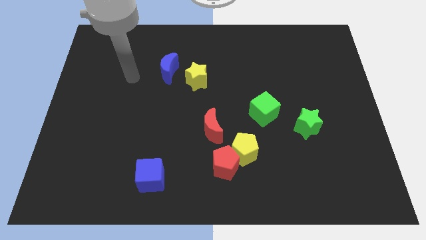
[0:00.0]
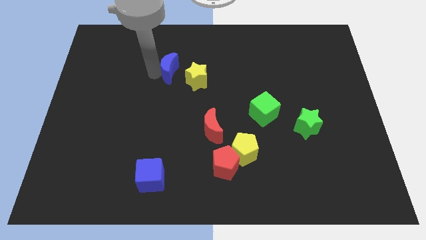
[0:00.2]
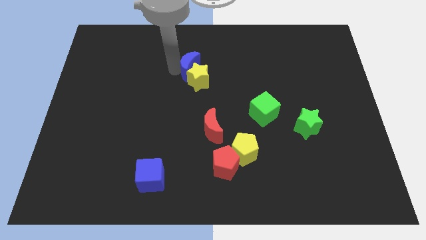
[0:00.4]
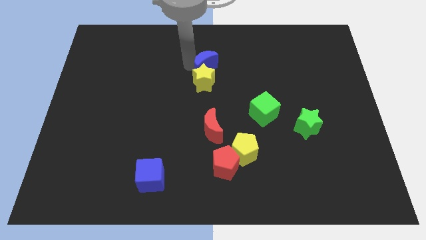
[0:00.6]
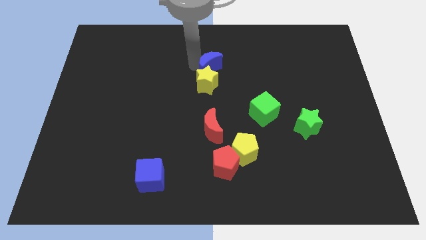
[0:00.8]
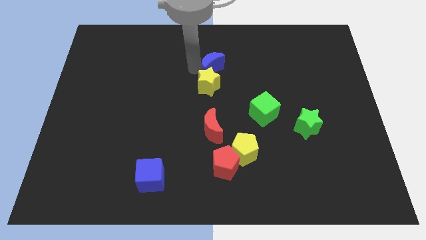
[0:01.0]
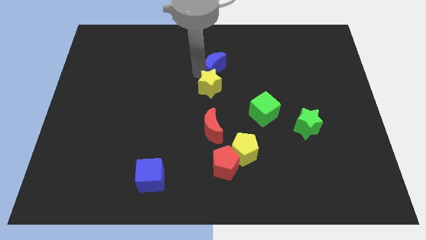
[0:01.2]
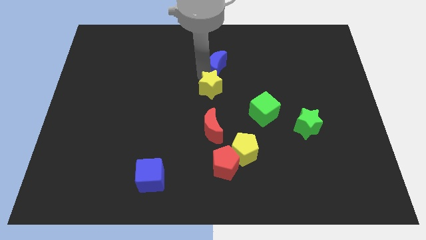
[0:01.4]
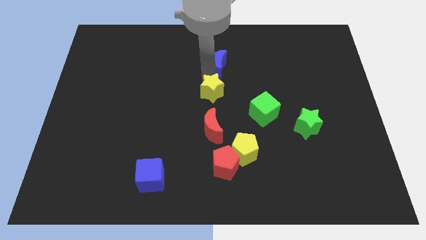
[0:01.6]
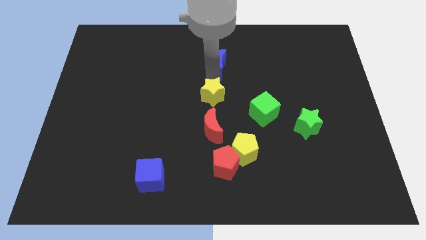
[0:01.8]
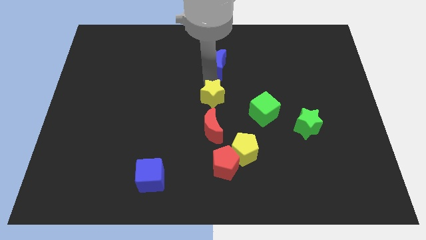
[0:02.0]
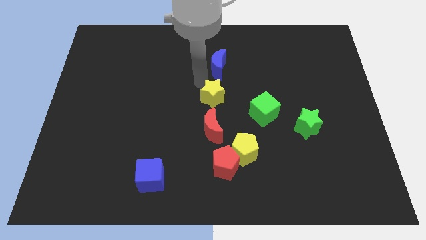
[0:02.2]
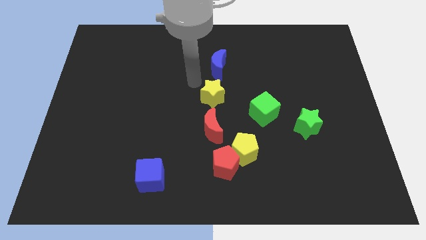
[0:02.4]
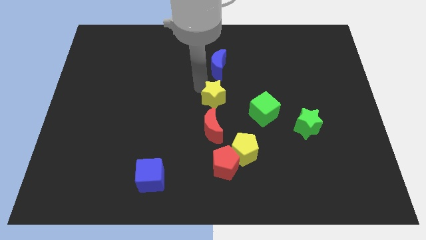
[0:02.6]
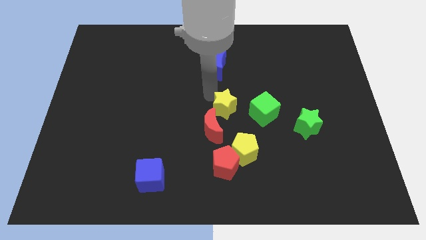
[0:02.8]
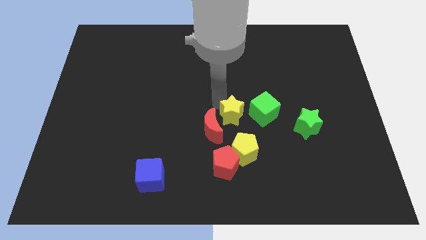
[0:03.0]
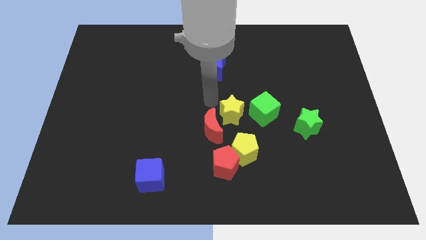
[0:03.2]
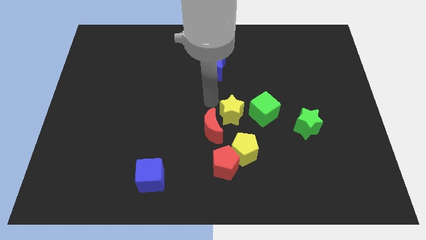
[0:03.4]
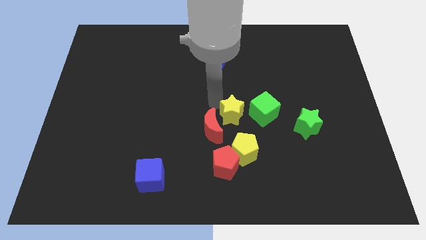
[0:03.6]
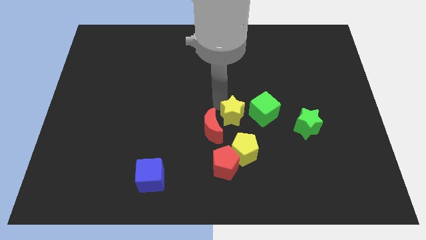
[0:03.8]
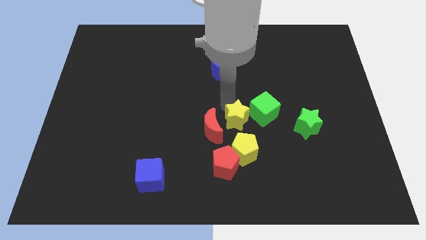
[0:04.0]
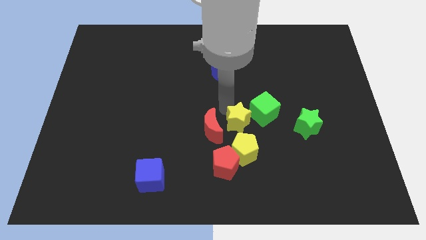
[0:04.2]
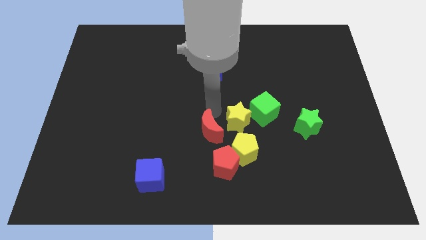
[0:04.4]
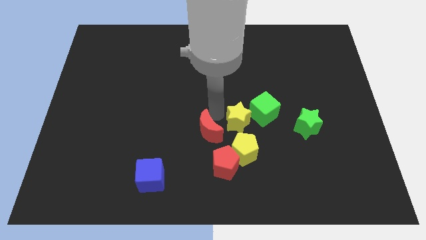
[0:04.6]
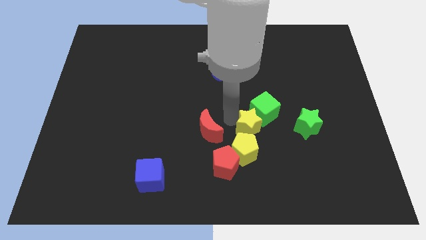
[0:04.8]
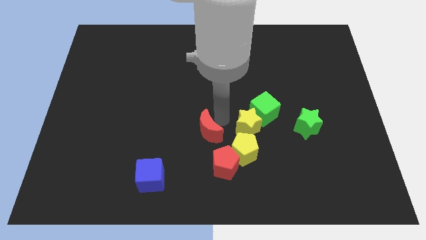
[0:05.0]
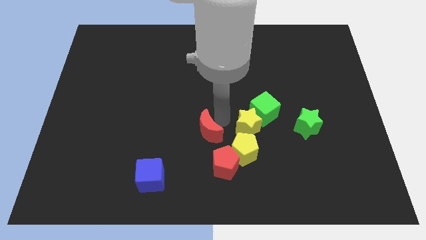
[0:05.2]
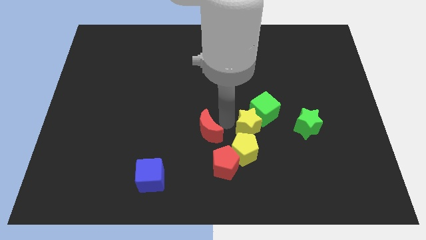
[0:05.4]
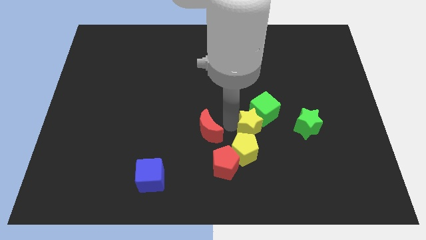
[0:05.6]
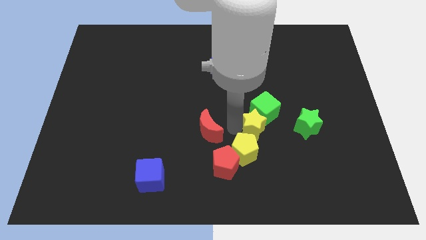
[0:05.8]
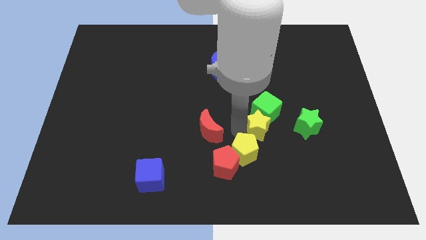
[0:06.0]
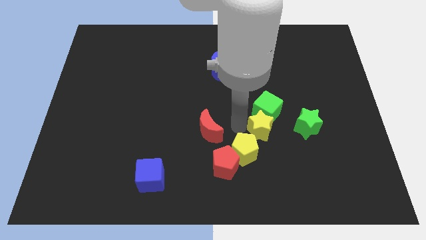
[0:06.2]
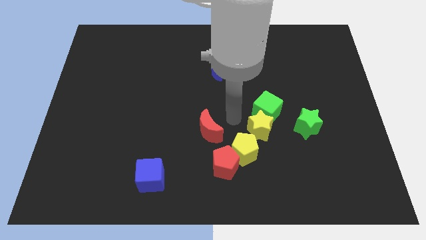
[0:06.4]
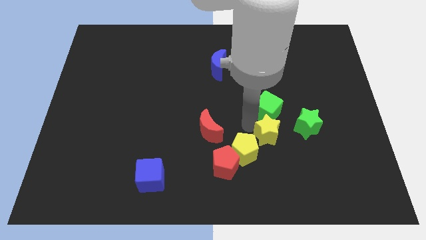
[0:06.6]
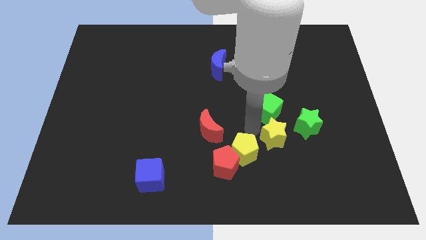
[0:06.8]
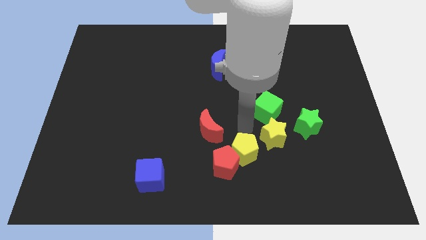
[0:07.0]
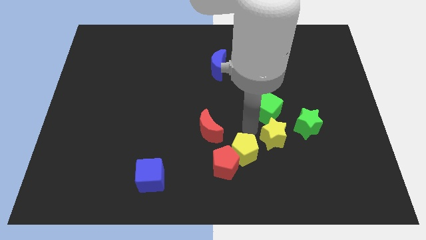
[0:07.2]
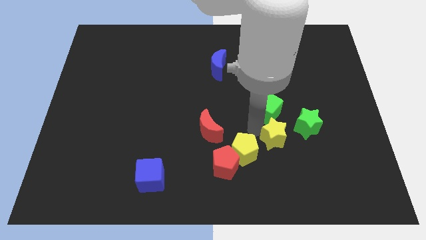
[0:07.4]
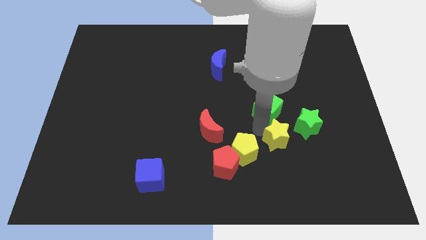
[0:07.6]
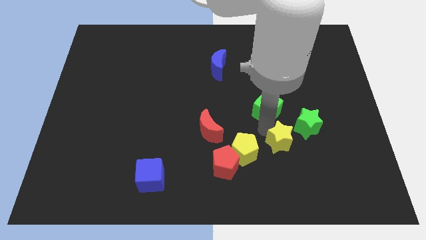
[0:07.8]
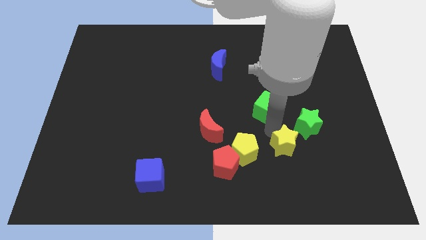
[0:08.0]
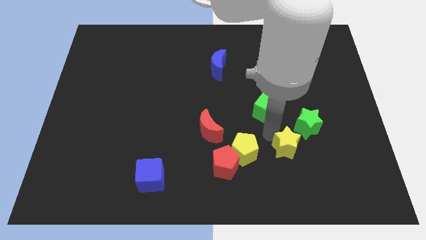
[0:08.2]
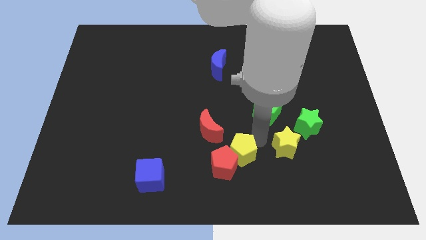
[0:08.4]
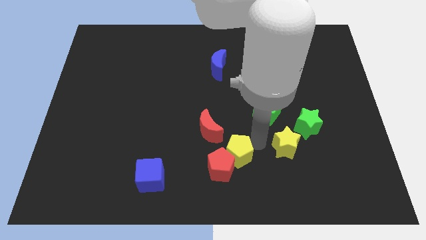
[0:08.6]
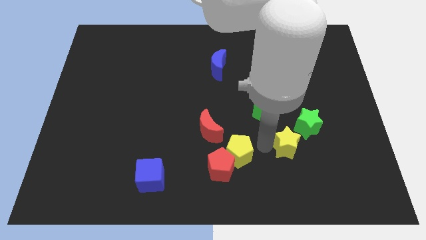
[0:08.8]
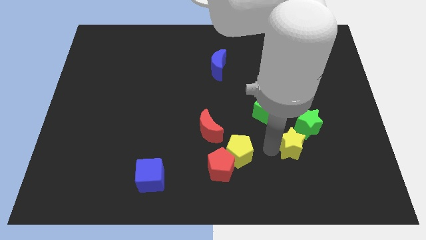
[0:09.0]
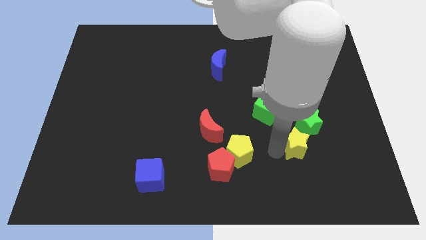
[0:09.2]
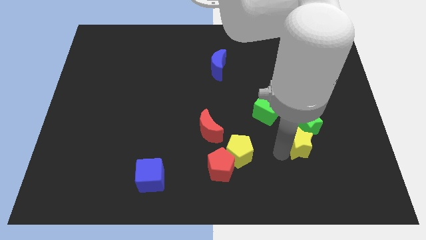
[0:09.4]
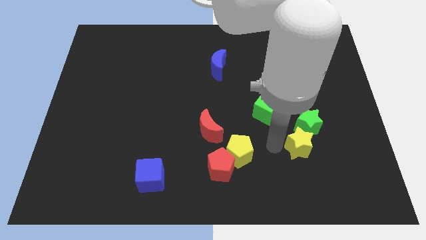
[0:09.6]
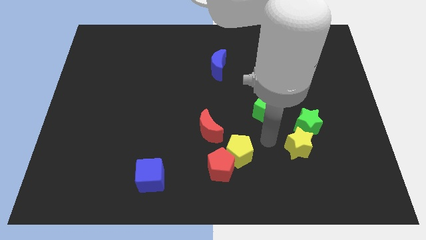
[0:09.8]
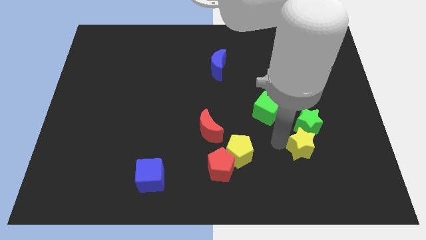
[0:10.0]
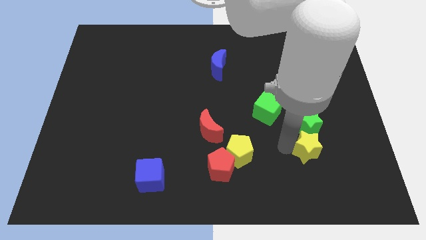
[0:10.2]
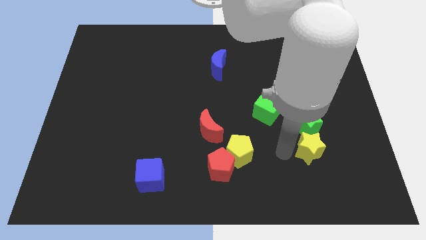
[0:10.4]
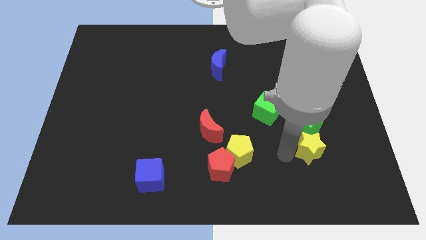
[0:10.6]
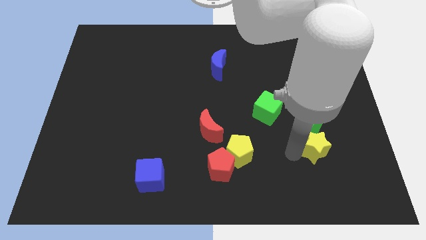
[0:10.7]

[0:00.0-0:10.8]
put the yellow star to the bottom right side of the green star

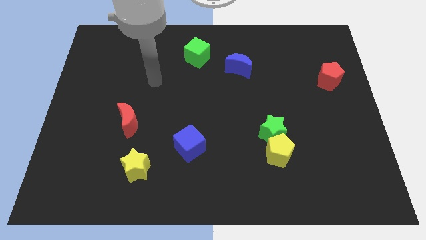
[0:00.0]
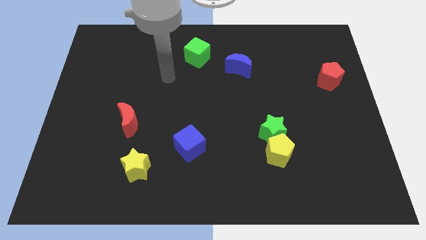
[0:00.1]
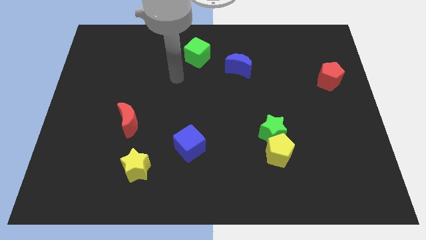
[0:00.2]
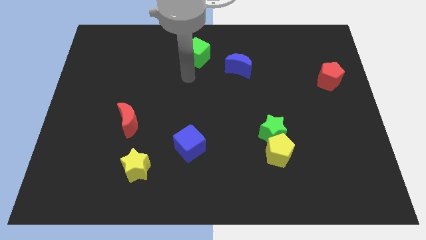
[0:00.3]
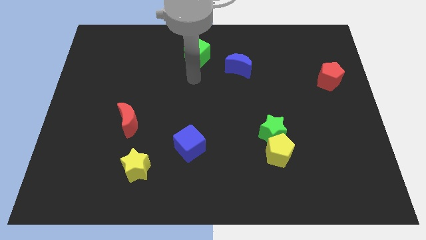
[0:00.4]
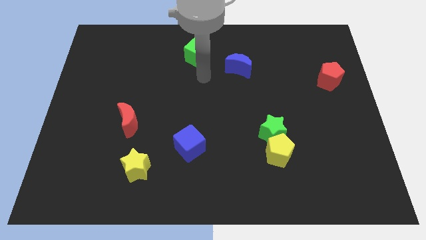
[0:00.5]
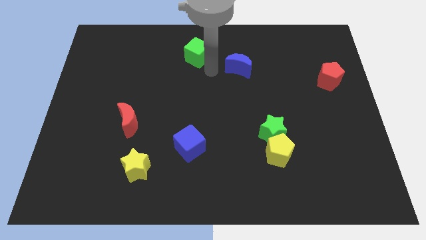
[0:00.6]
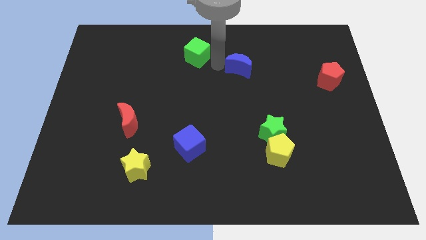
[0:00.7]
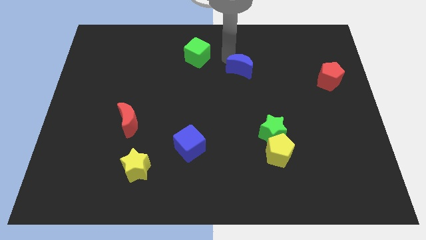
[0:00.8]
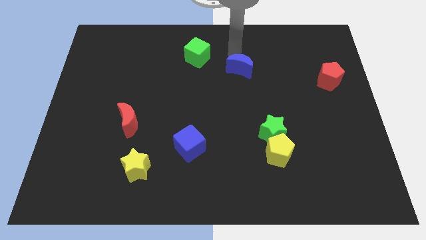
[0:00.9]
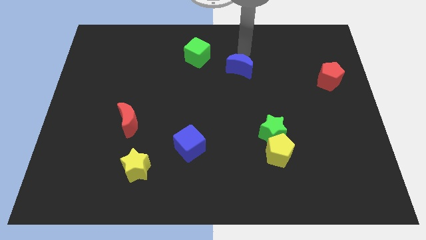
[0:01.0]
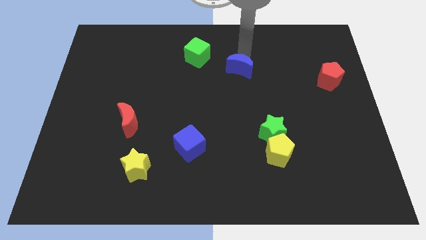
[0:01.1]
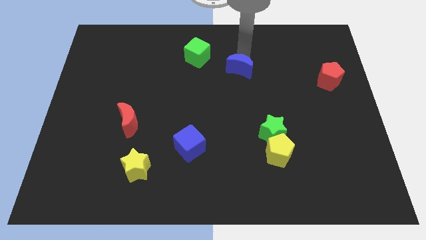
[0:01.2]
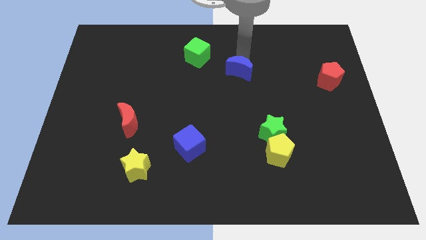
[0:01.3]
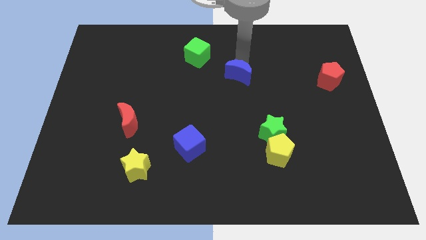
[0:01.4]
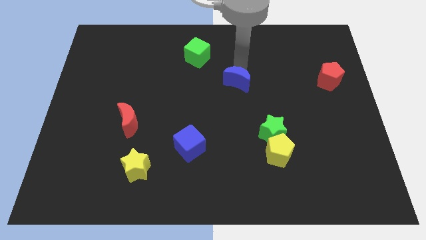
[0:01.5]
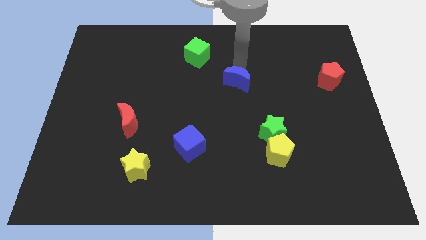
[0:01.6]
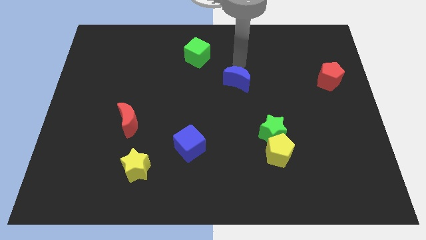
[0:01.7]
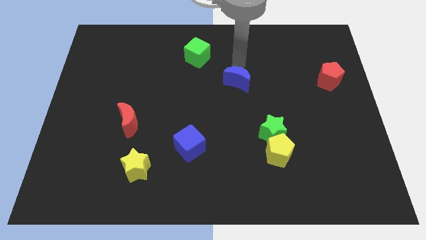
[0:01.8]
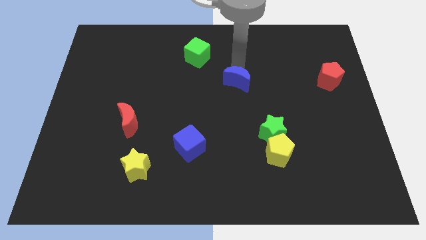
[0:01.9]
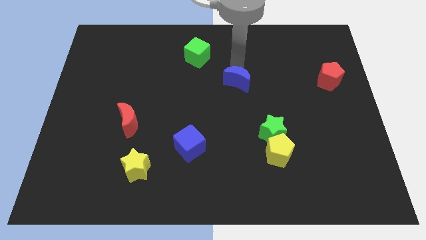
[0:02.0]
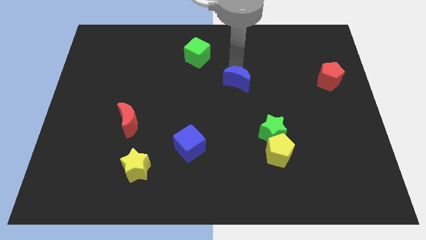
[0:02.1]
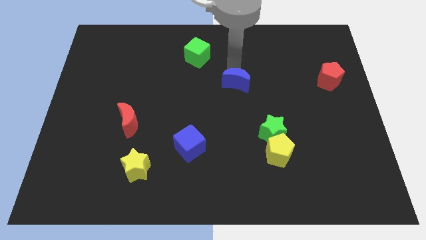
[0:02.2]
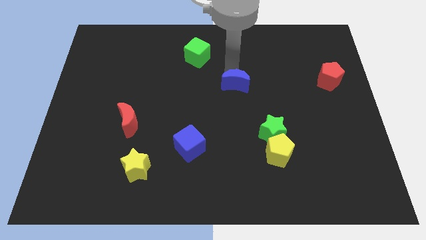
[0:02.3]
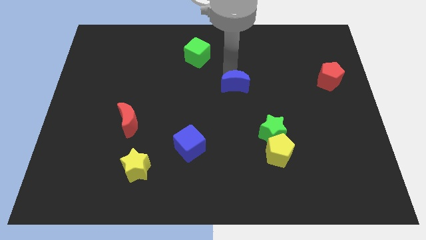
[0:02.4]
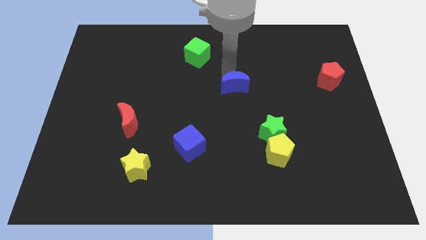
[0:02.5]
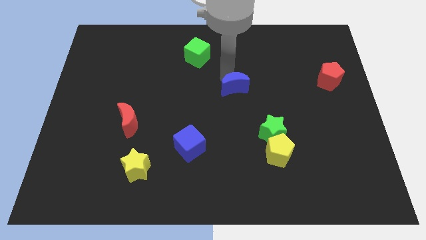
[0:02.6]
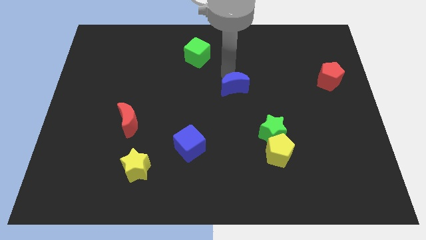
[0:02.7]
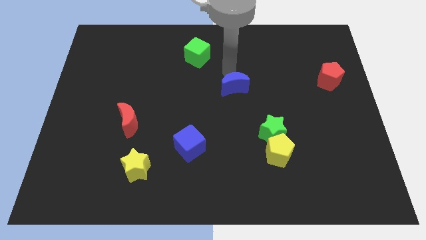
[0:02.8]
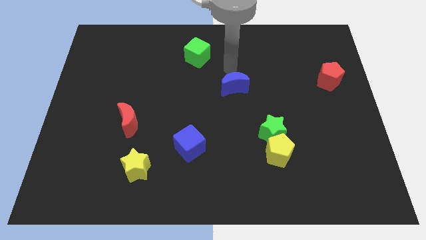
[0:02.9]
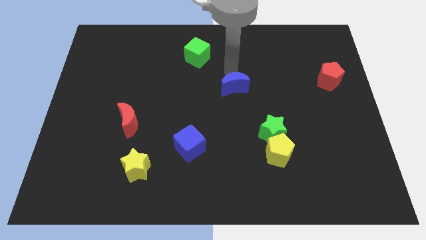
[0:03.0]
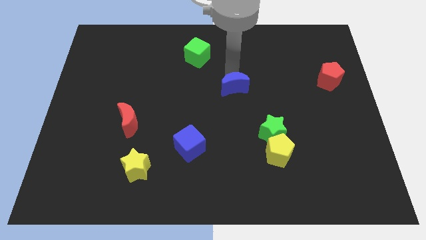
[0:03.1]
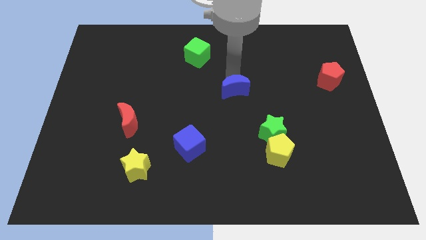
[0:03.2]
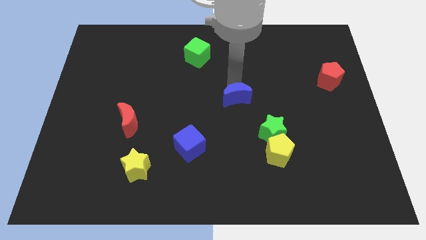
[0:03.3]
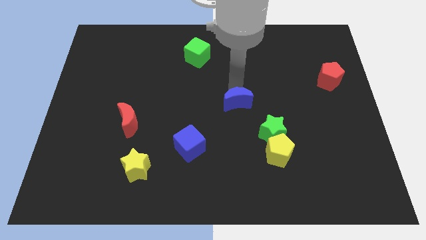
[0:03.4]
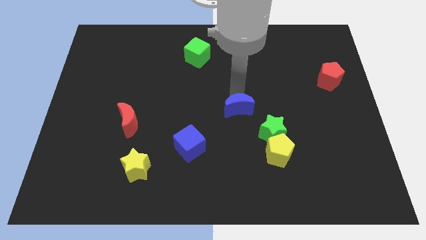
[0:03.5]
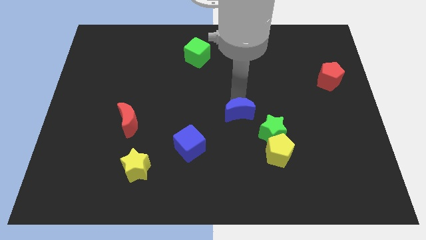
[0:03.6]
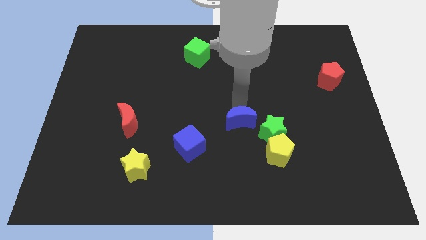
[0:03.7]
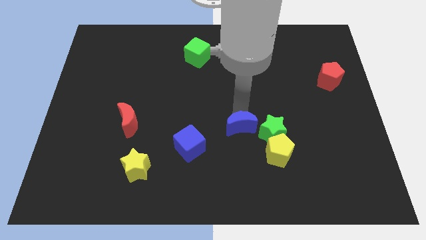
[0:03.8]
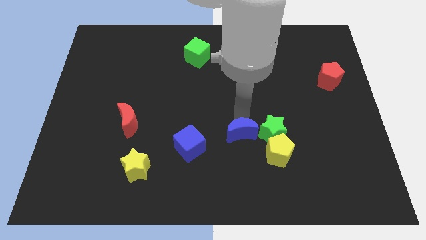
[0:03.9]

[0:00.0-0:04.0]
push the blue moon to the right of the blue cube
